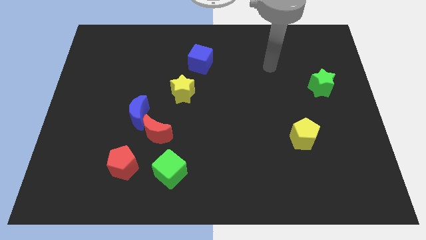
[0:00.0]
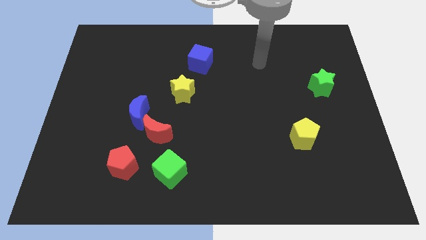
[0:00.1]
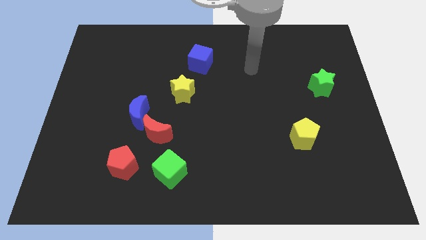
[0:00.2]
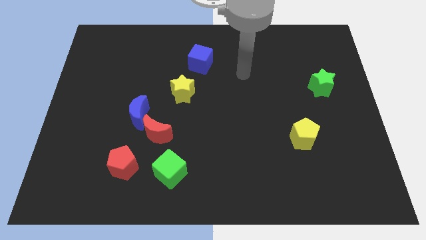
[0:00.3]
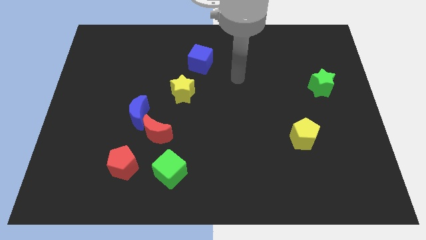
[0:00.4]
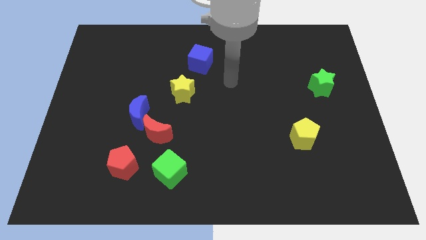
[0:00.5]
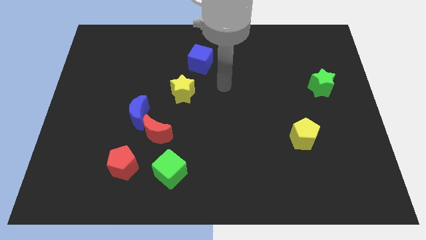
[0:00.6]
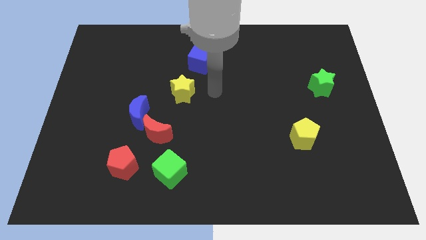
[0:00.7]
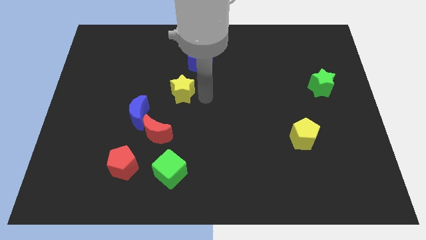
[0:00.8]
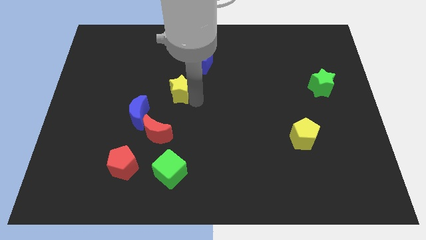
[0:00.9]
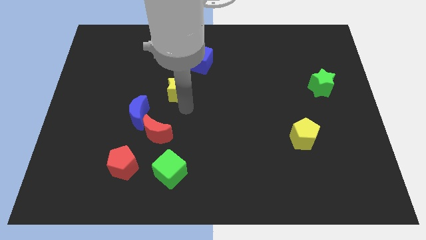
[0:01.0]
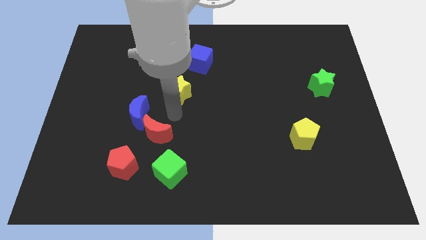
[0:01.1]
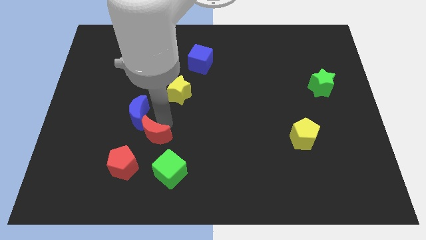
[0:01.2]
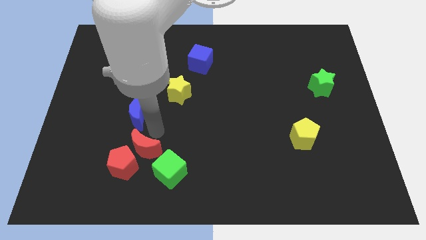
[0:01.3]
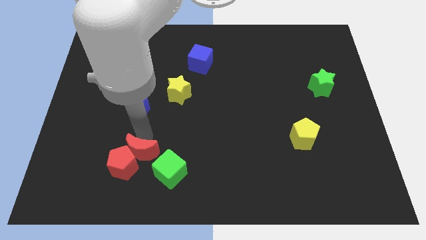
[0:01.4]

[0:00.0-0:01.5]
pull the blue moon apart from the red moon

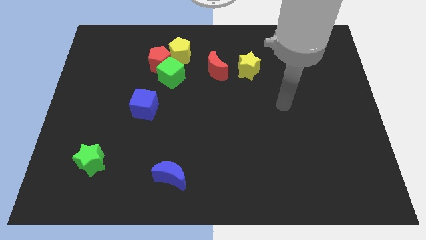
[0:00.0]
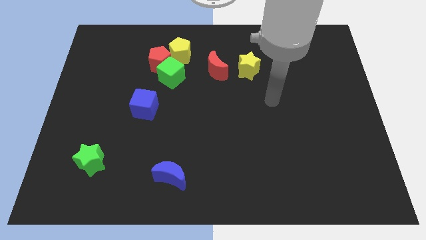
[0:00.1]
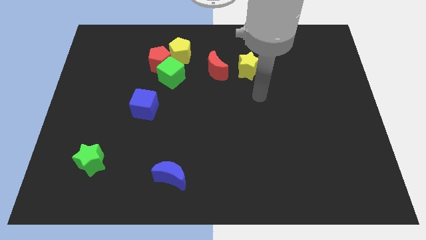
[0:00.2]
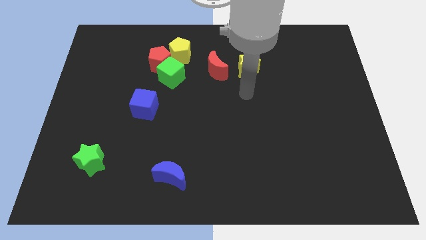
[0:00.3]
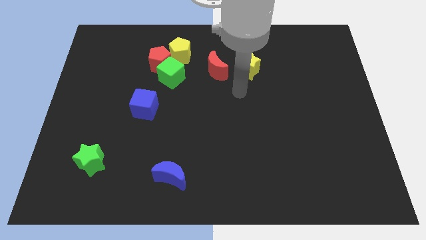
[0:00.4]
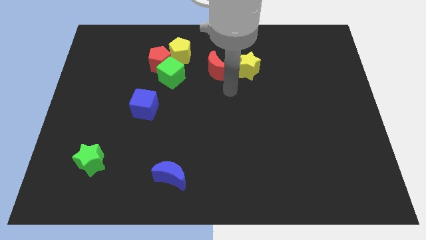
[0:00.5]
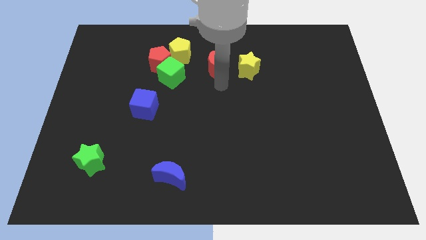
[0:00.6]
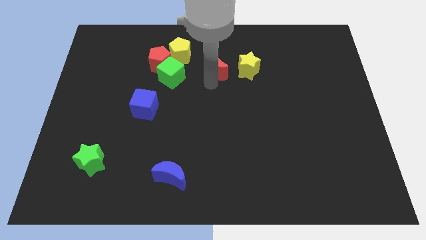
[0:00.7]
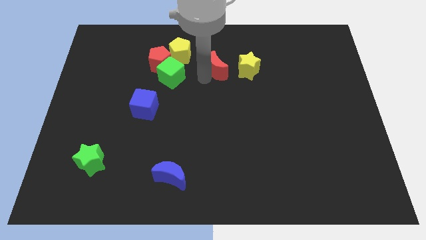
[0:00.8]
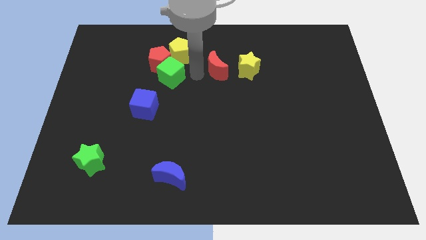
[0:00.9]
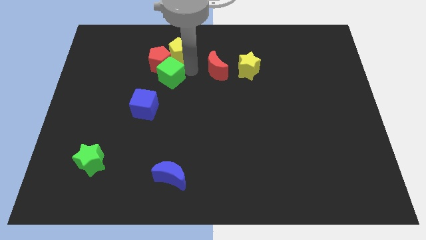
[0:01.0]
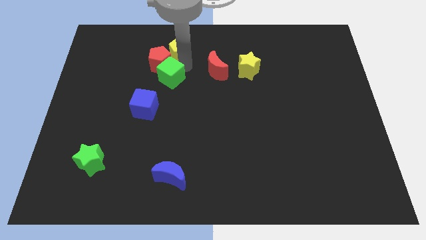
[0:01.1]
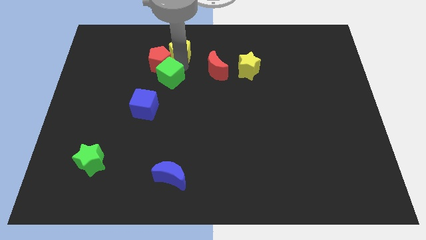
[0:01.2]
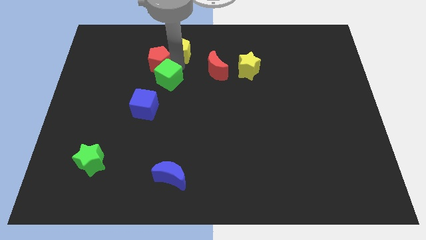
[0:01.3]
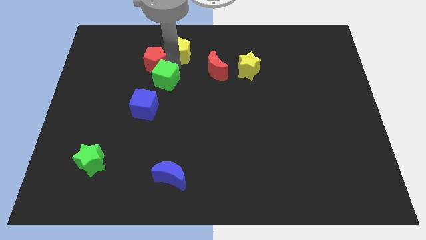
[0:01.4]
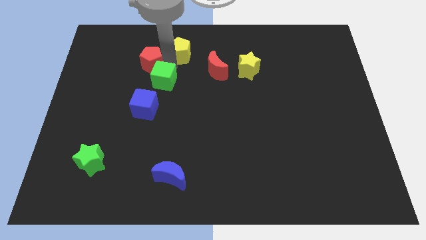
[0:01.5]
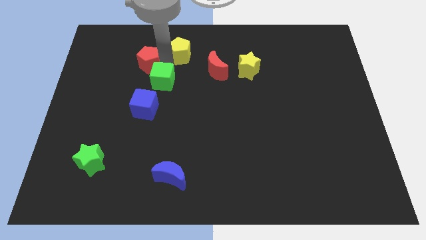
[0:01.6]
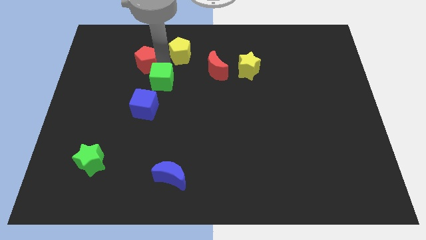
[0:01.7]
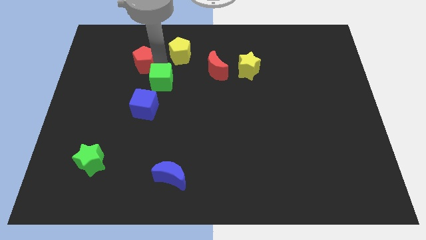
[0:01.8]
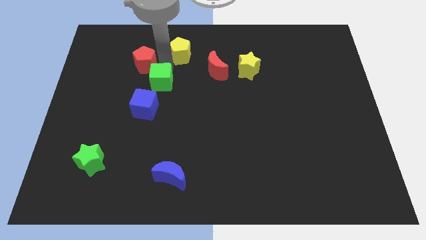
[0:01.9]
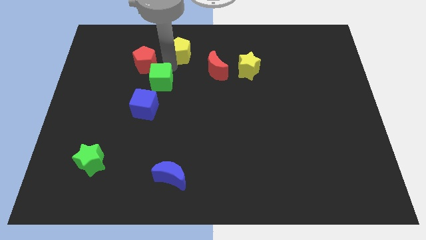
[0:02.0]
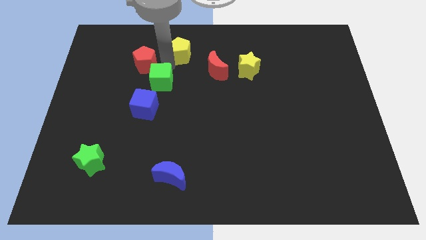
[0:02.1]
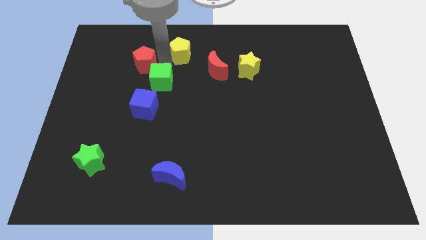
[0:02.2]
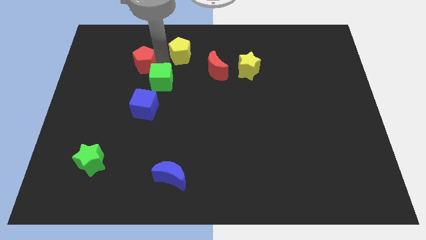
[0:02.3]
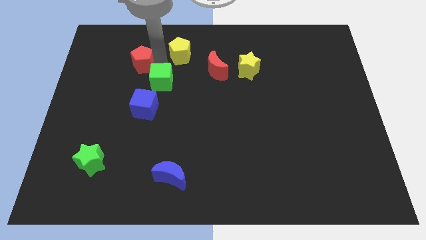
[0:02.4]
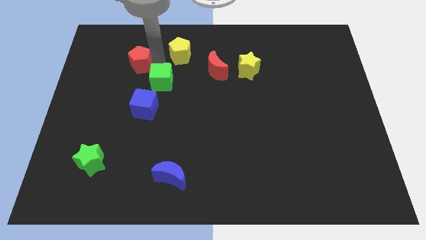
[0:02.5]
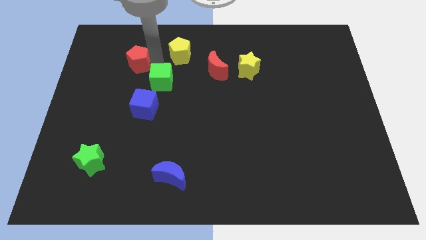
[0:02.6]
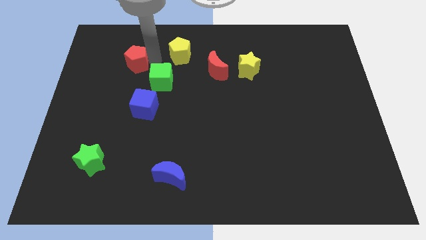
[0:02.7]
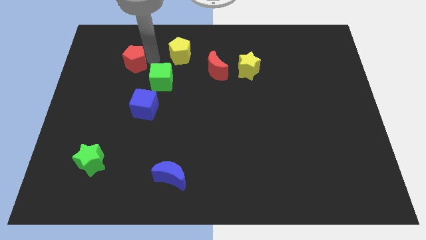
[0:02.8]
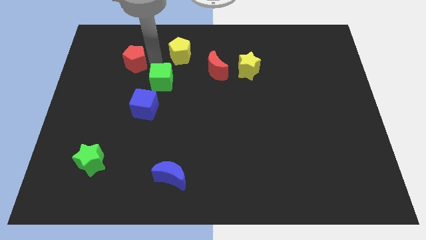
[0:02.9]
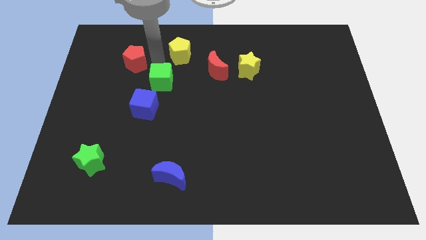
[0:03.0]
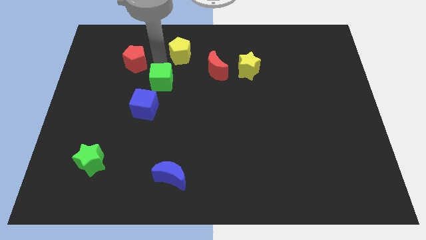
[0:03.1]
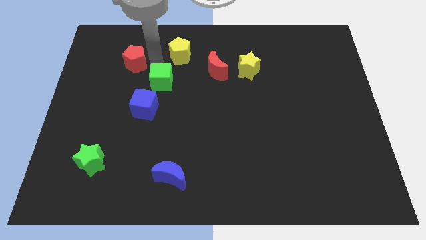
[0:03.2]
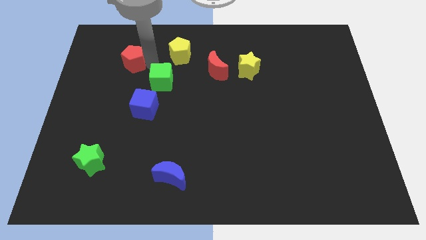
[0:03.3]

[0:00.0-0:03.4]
pull the red pentagon apart from the green cube and yellow pentagon

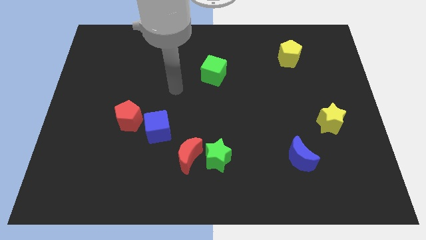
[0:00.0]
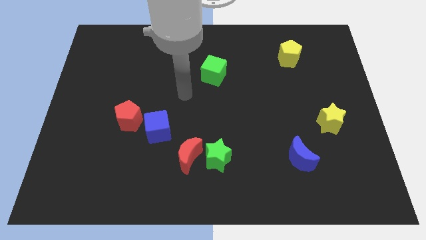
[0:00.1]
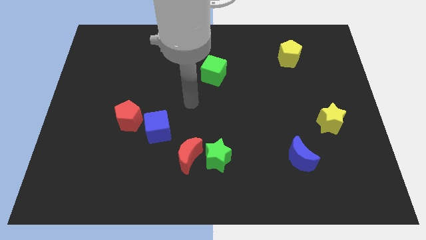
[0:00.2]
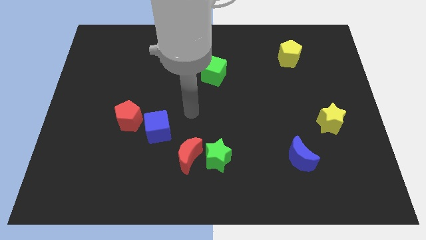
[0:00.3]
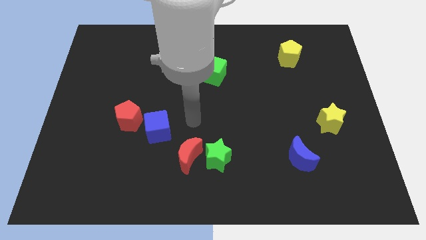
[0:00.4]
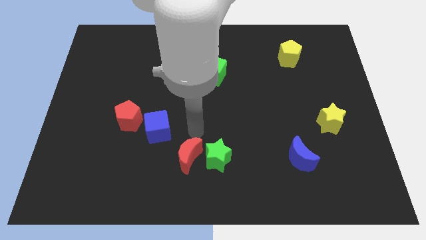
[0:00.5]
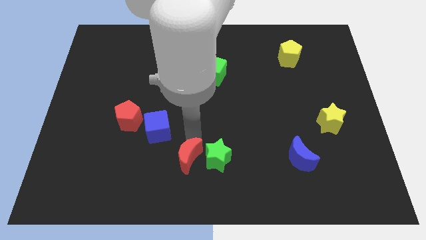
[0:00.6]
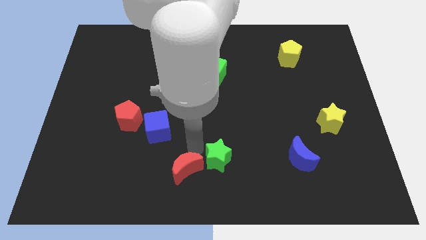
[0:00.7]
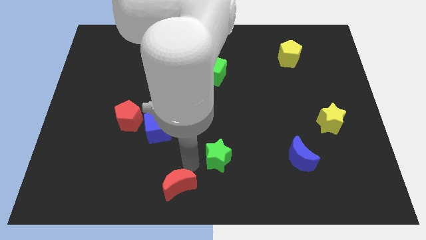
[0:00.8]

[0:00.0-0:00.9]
move the green star away from the red moon

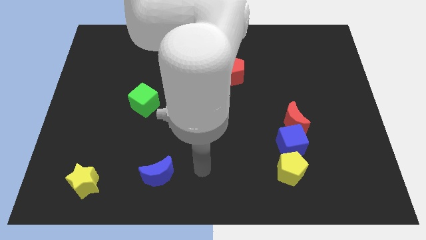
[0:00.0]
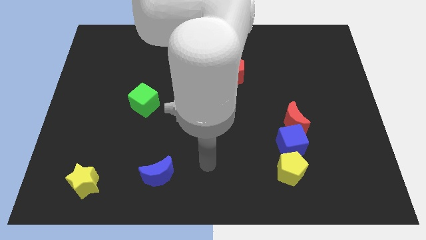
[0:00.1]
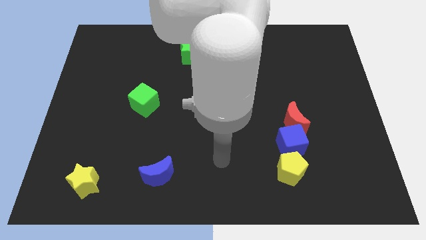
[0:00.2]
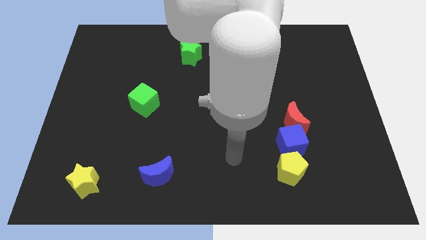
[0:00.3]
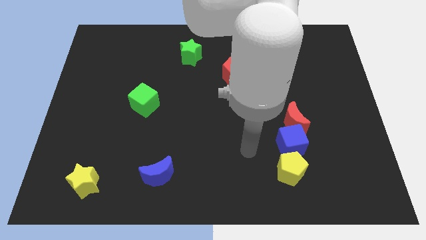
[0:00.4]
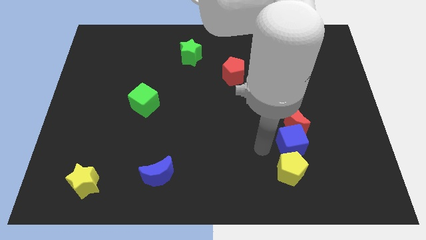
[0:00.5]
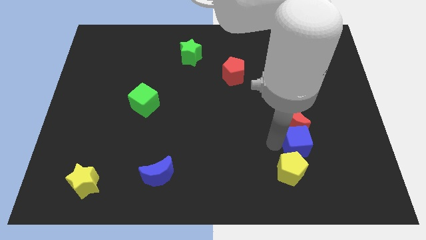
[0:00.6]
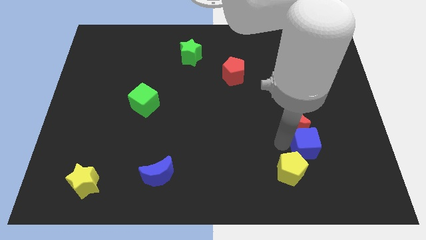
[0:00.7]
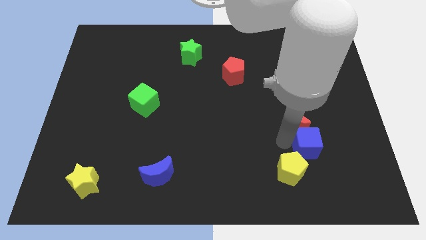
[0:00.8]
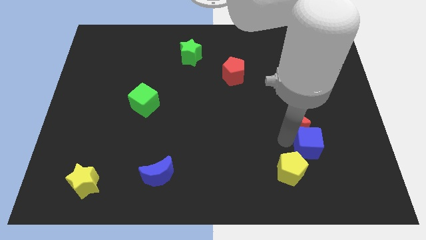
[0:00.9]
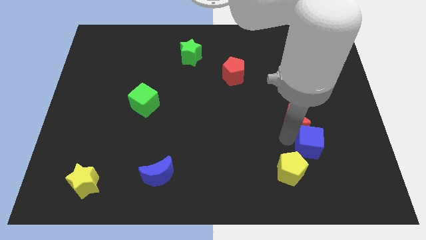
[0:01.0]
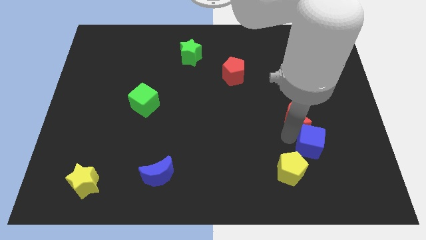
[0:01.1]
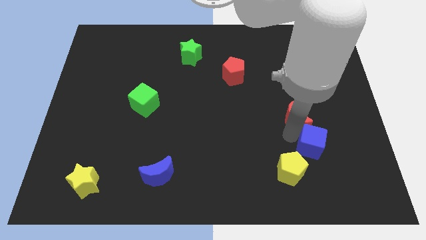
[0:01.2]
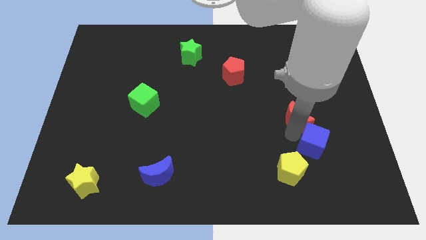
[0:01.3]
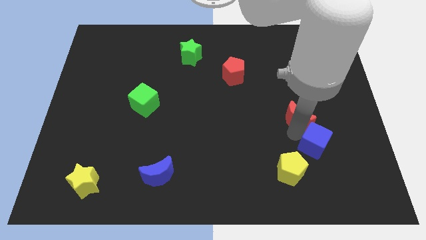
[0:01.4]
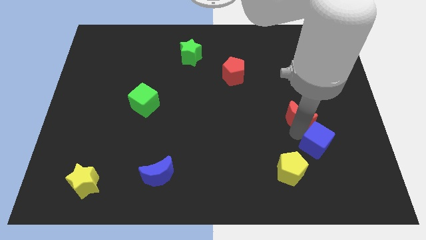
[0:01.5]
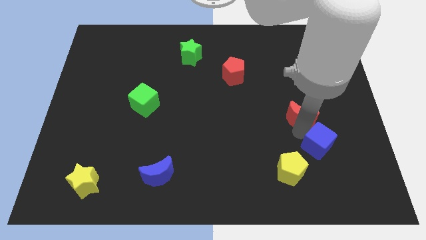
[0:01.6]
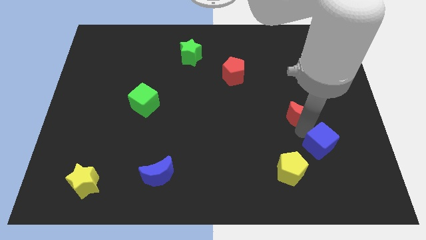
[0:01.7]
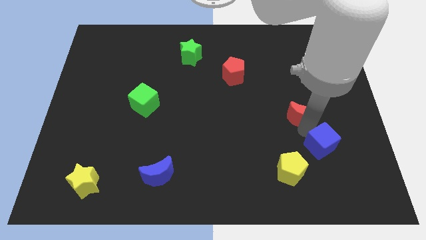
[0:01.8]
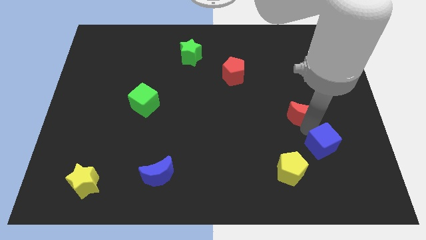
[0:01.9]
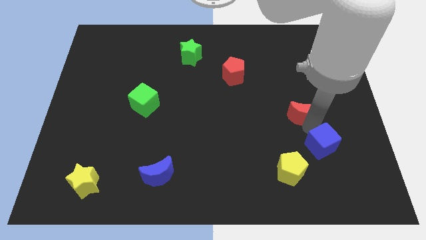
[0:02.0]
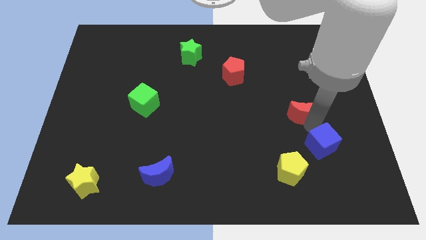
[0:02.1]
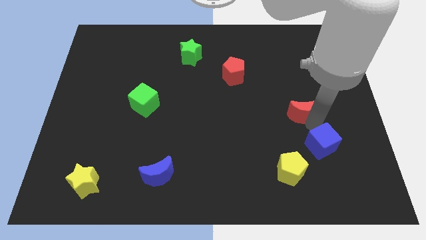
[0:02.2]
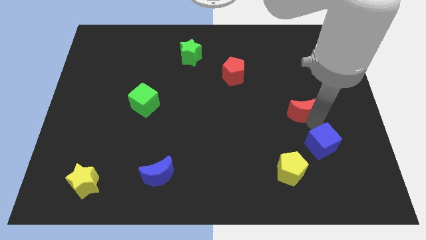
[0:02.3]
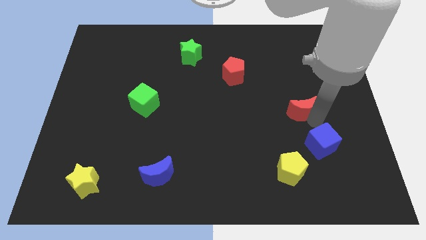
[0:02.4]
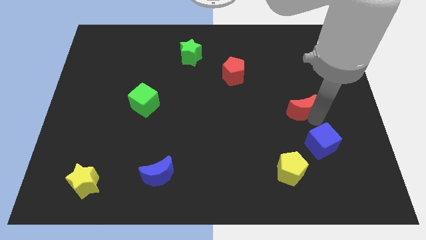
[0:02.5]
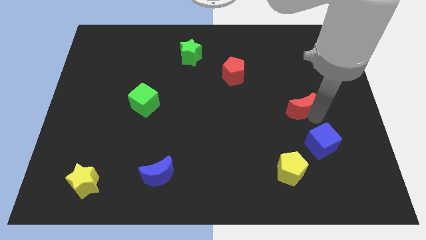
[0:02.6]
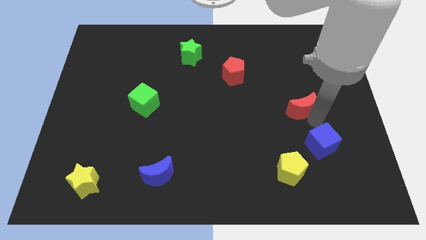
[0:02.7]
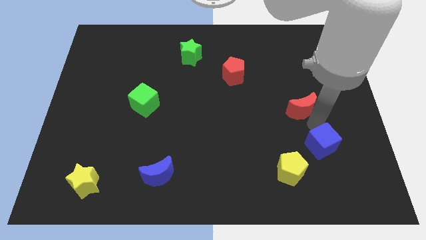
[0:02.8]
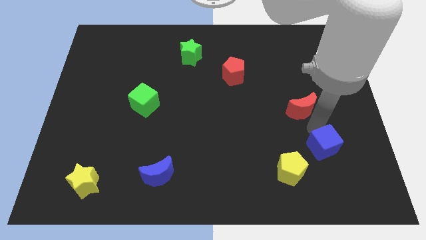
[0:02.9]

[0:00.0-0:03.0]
pull the red moon apart from the blue cube

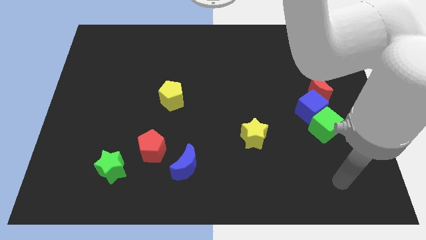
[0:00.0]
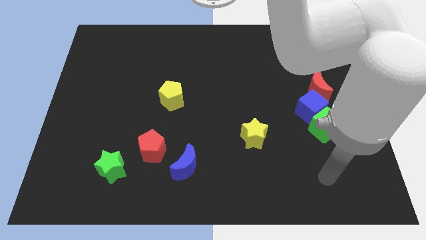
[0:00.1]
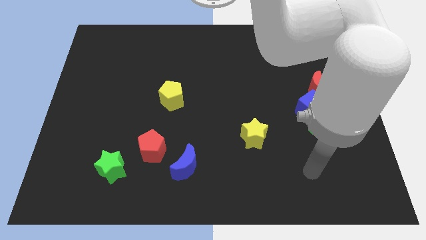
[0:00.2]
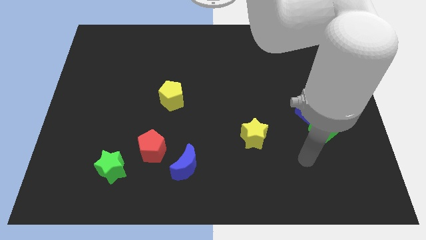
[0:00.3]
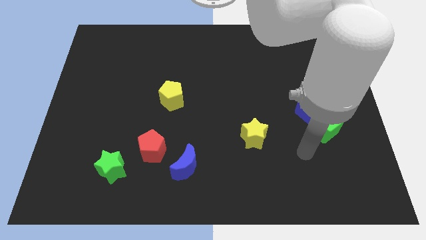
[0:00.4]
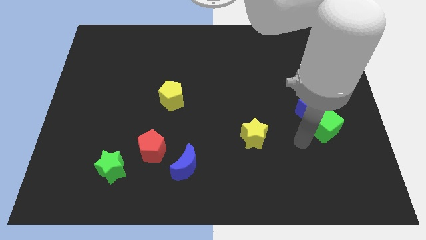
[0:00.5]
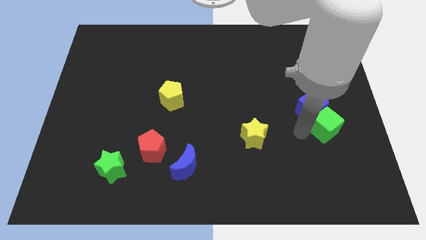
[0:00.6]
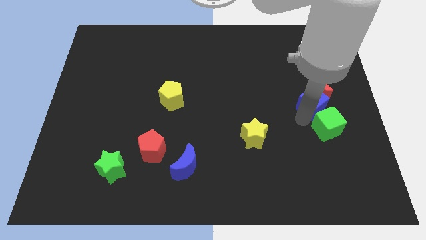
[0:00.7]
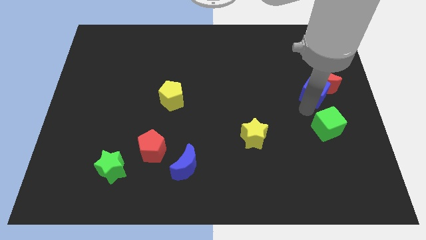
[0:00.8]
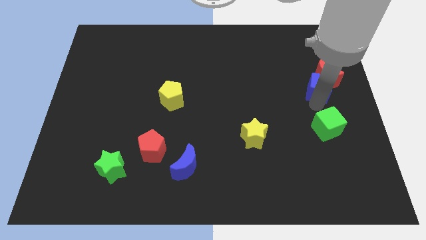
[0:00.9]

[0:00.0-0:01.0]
move the green cube away from the blue cube
